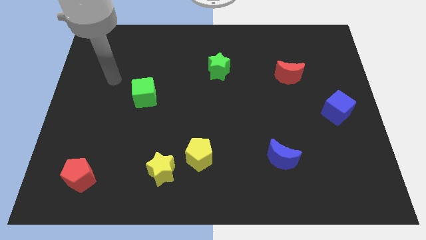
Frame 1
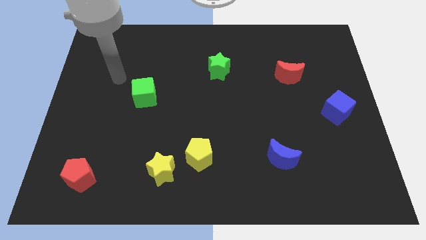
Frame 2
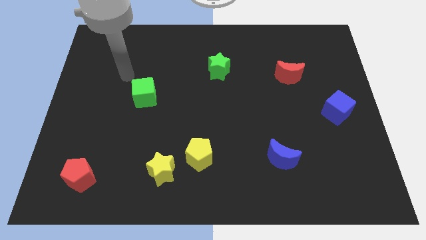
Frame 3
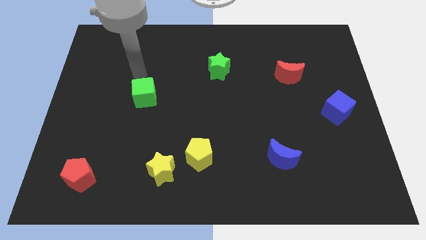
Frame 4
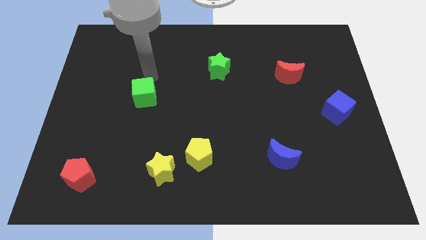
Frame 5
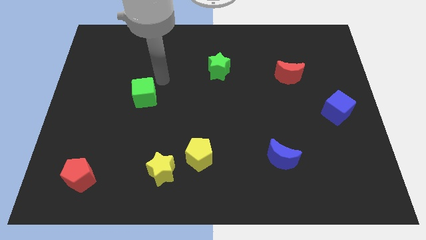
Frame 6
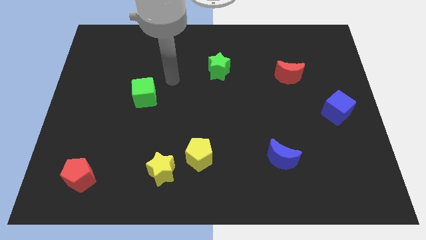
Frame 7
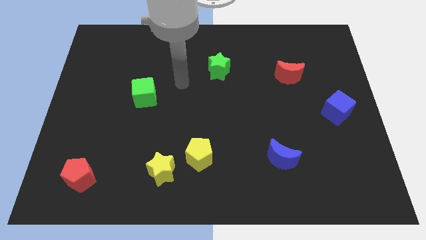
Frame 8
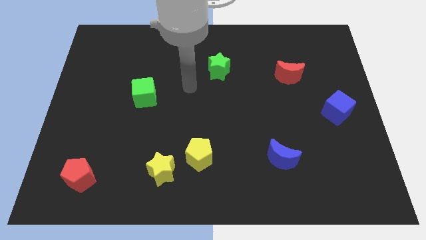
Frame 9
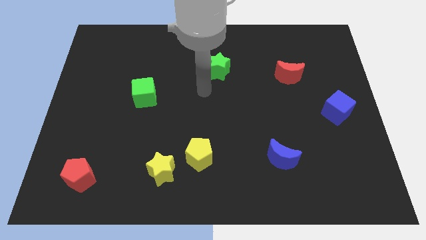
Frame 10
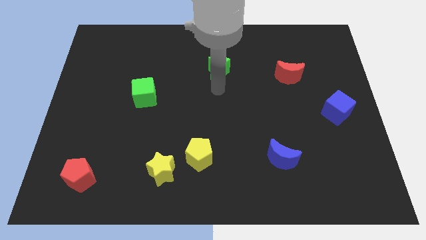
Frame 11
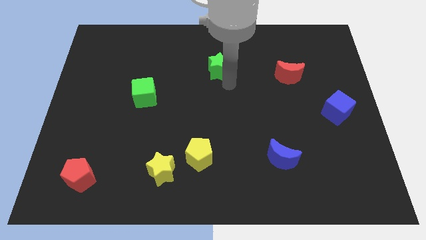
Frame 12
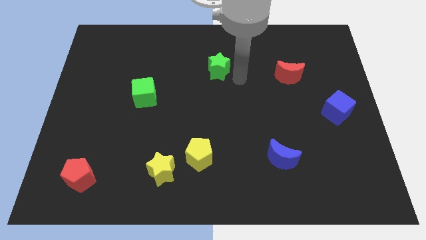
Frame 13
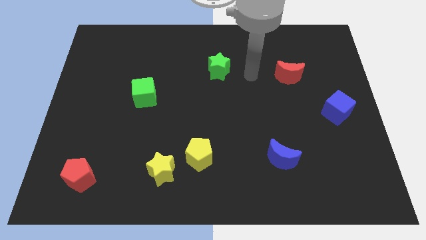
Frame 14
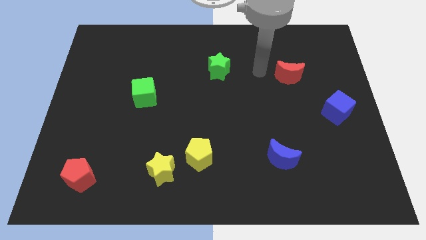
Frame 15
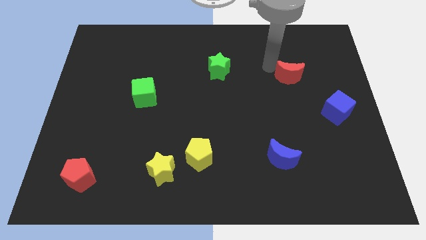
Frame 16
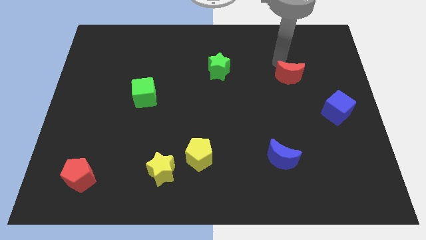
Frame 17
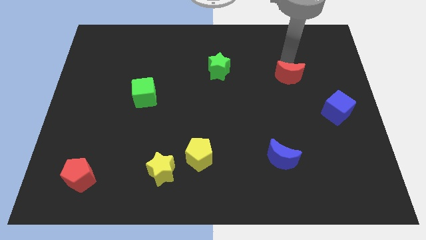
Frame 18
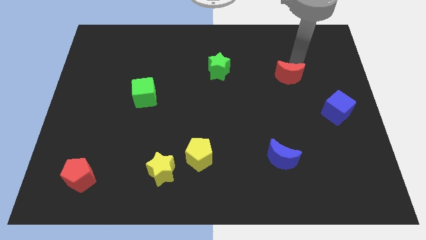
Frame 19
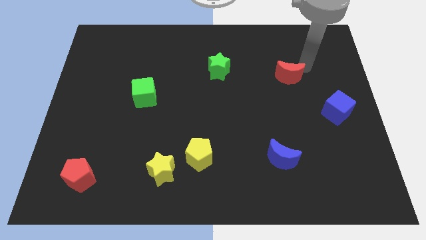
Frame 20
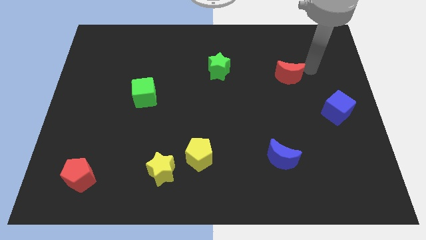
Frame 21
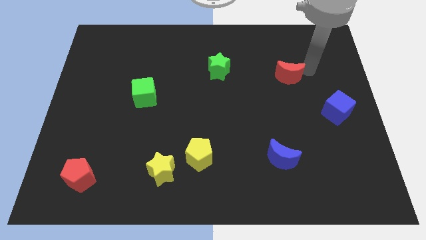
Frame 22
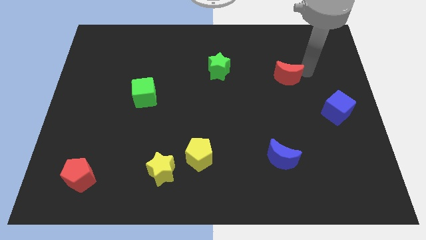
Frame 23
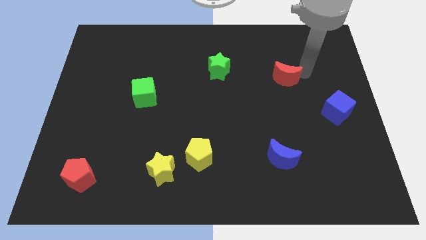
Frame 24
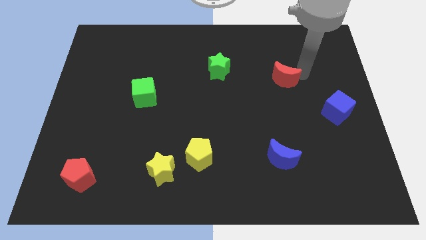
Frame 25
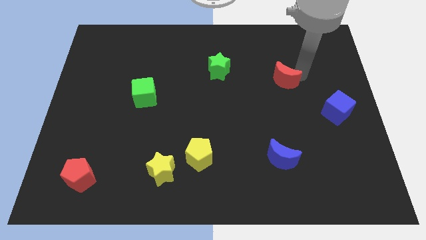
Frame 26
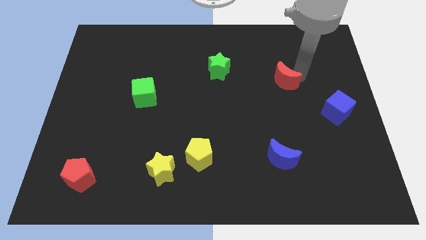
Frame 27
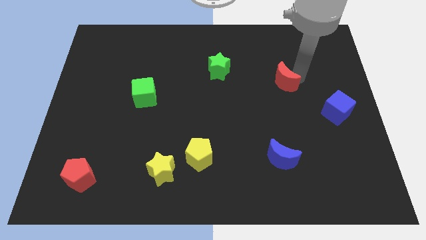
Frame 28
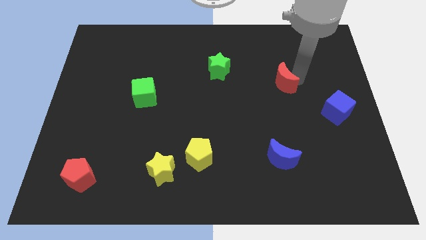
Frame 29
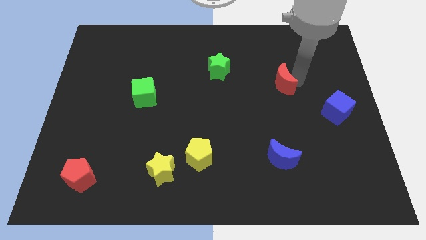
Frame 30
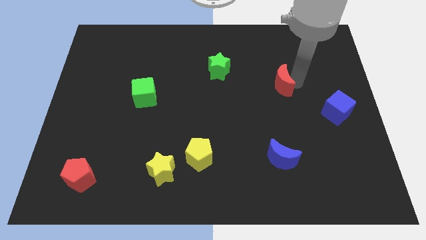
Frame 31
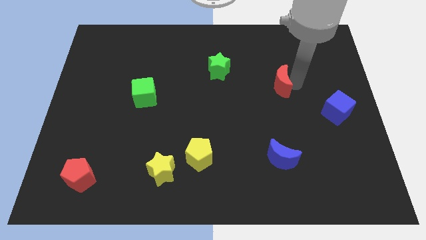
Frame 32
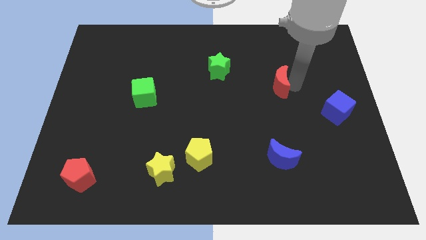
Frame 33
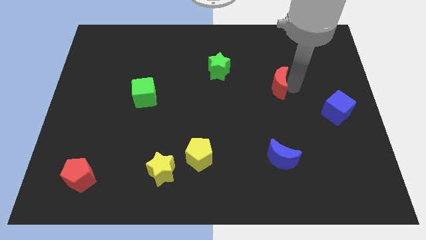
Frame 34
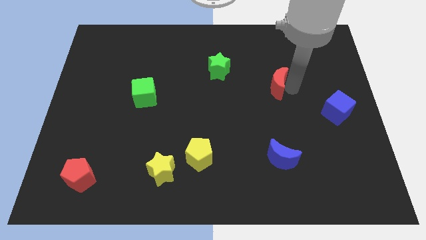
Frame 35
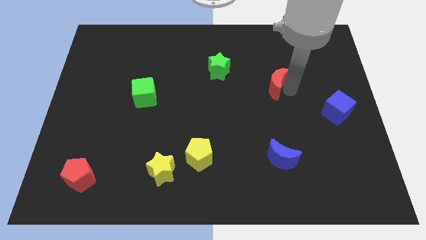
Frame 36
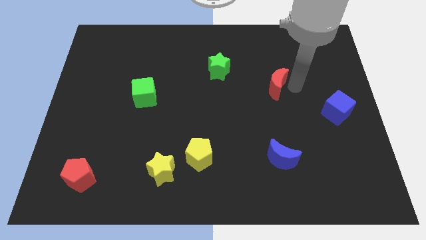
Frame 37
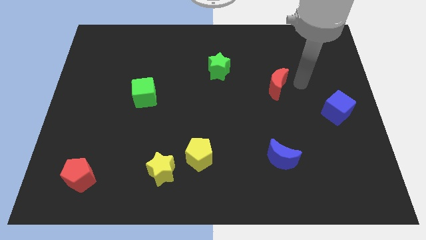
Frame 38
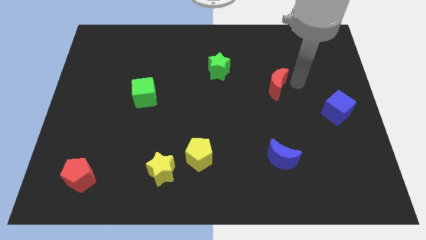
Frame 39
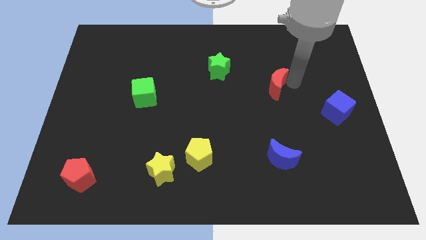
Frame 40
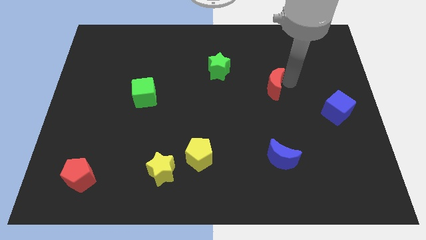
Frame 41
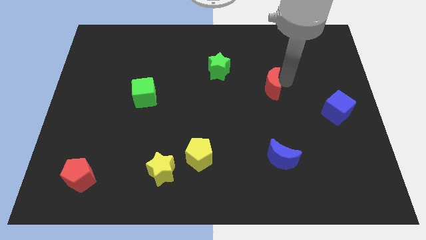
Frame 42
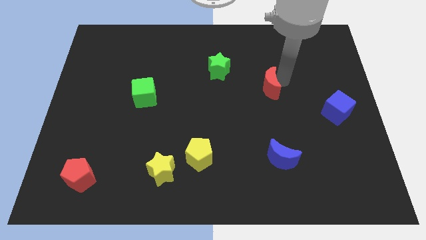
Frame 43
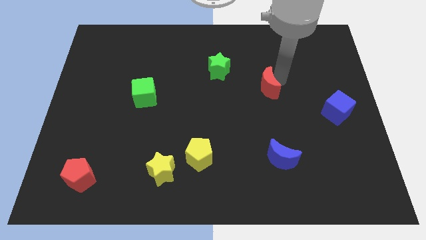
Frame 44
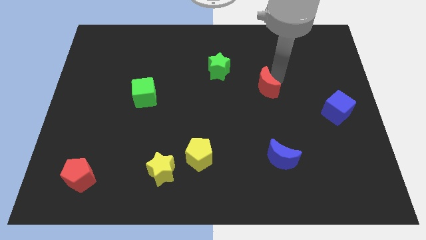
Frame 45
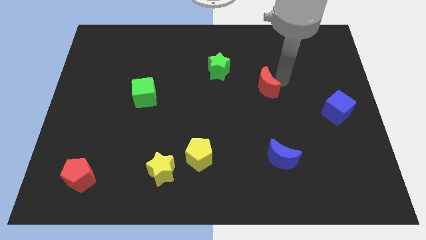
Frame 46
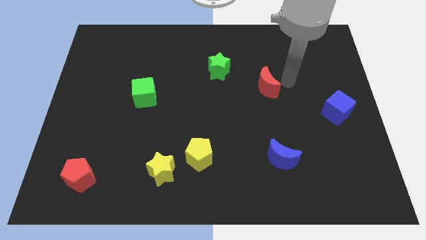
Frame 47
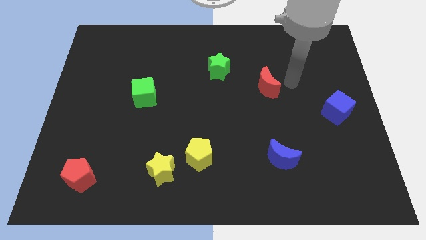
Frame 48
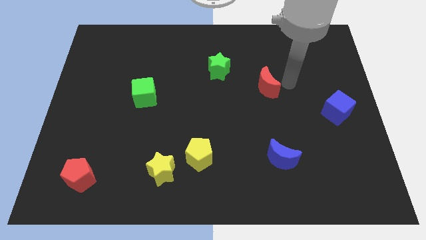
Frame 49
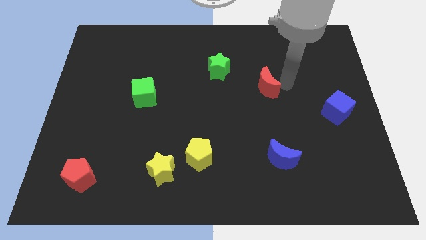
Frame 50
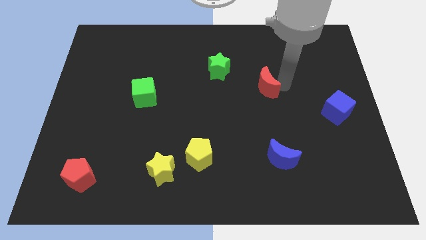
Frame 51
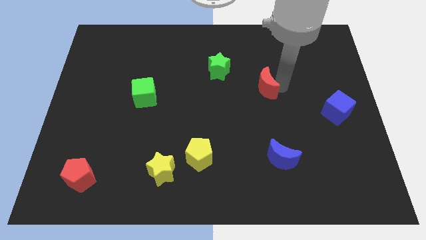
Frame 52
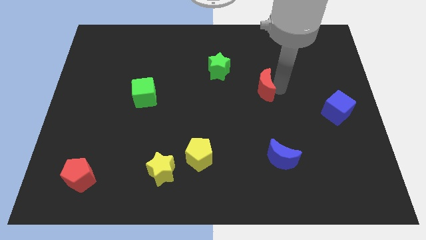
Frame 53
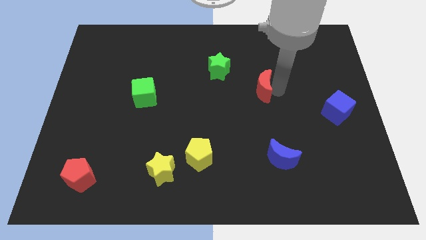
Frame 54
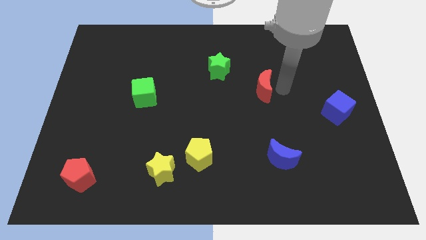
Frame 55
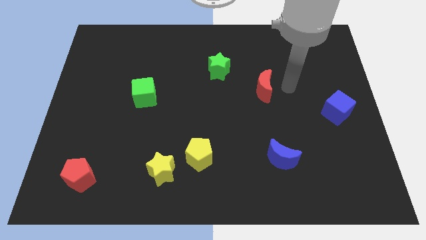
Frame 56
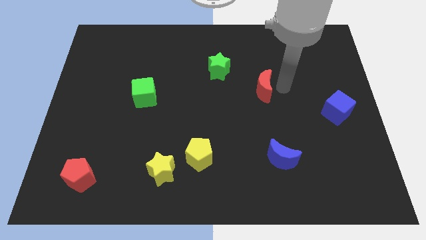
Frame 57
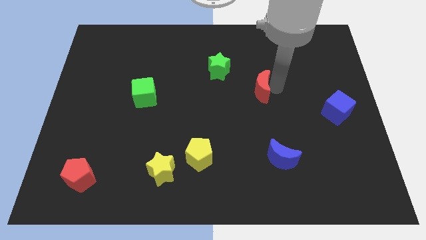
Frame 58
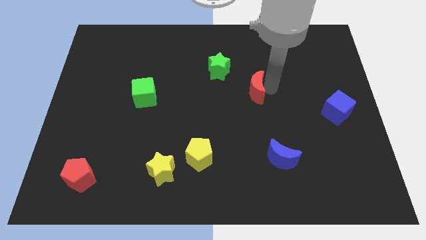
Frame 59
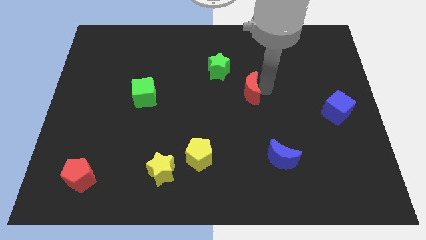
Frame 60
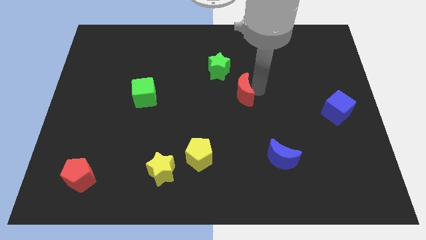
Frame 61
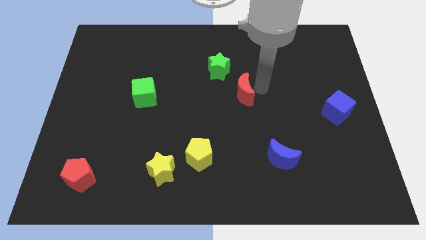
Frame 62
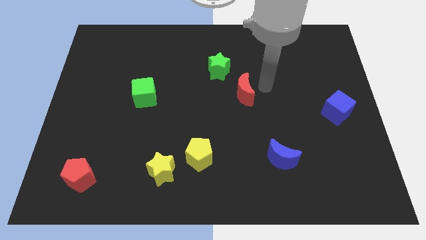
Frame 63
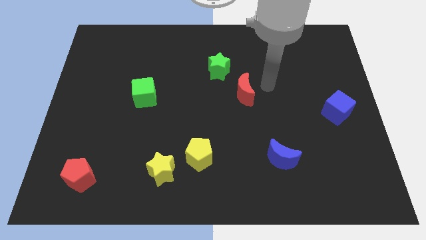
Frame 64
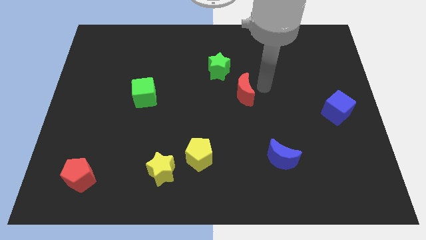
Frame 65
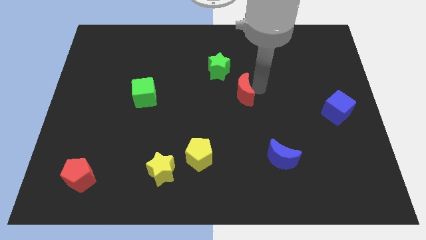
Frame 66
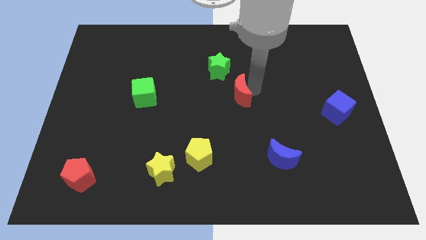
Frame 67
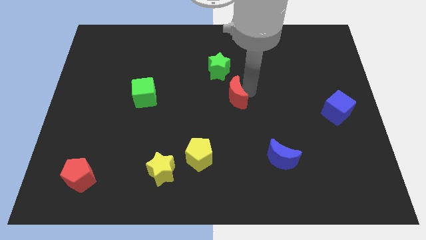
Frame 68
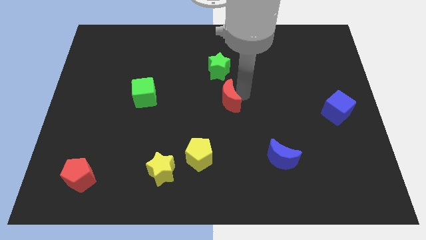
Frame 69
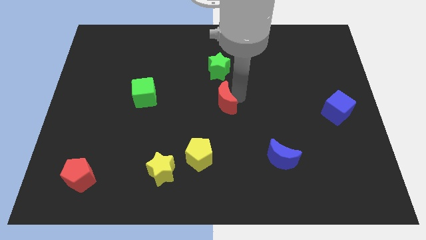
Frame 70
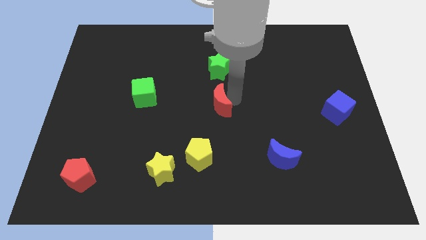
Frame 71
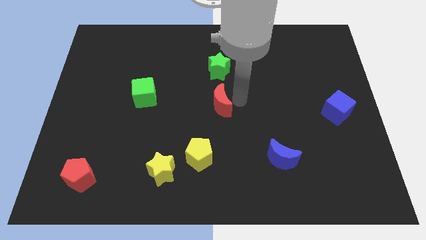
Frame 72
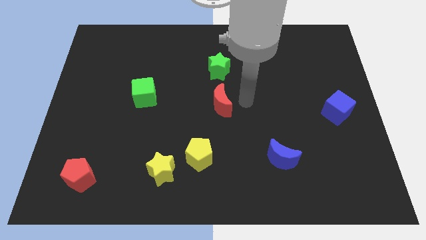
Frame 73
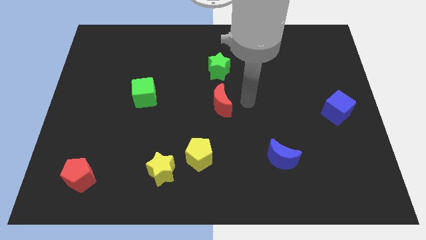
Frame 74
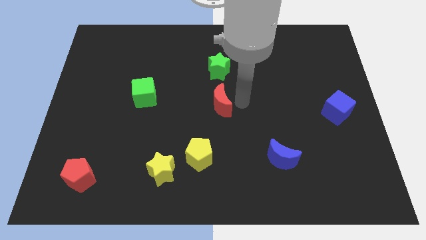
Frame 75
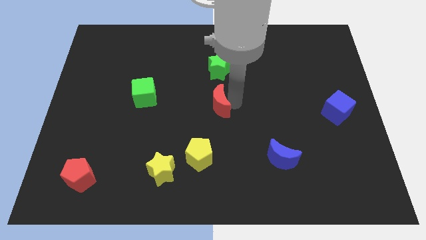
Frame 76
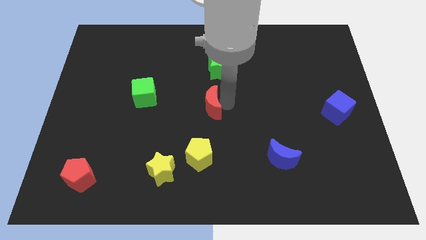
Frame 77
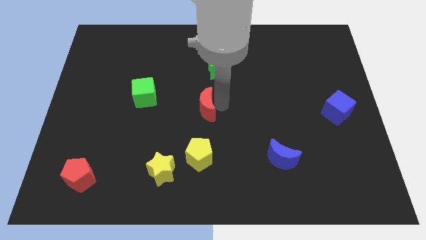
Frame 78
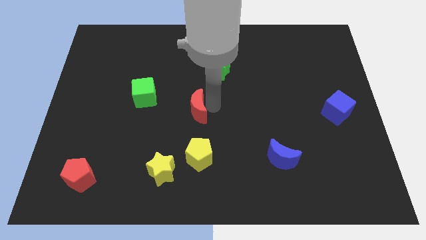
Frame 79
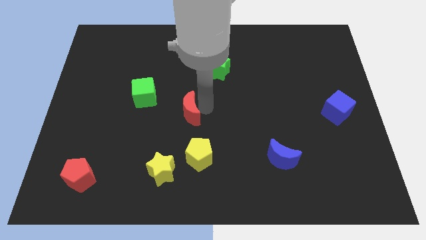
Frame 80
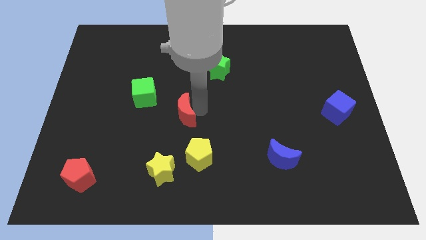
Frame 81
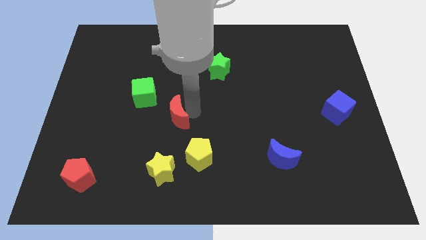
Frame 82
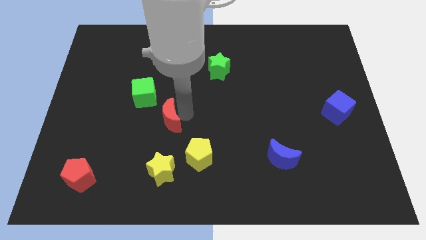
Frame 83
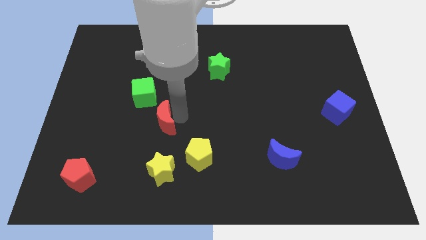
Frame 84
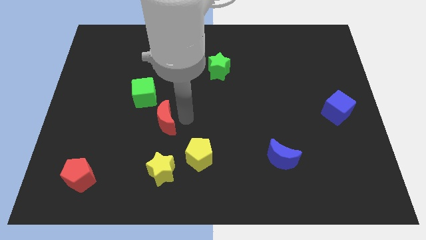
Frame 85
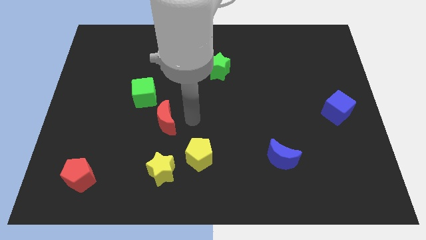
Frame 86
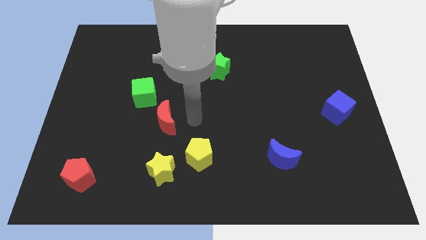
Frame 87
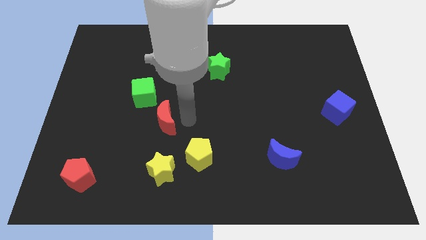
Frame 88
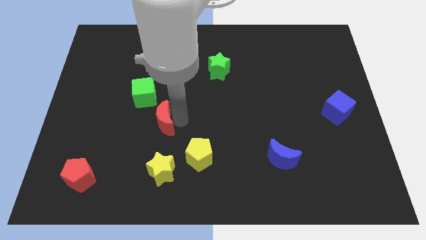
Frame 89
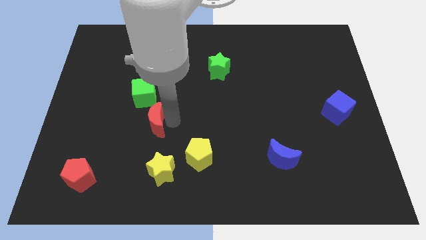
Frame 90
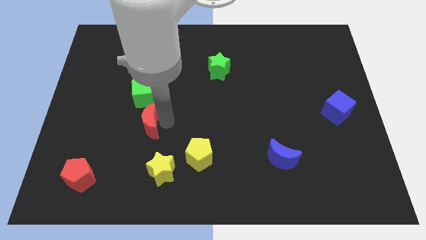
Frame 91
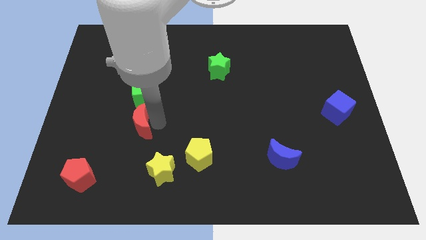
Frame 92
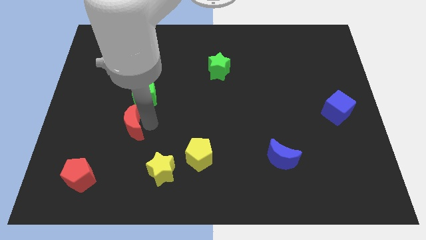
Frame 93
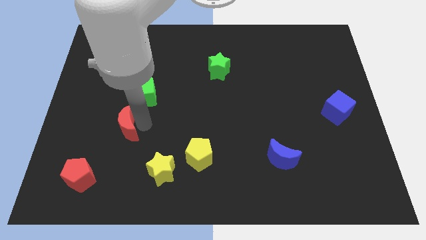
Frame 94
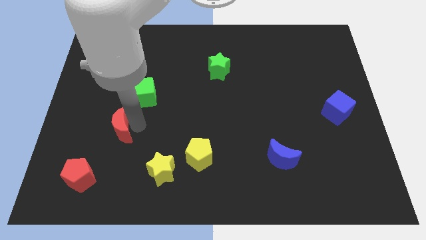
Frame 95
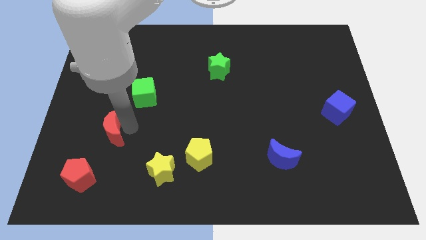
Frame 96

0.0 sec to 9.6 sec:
push the red moon to the top of the red pentagon
